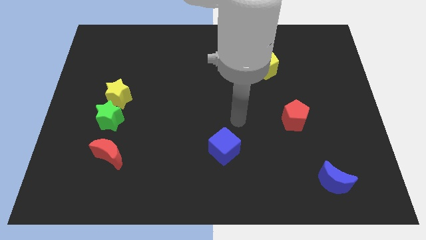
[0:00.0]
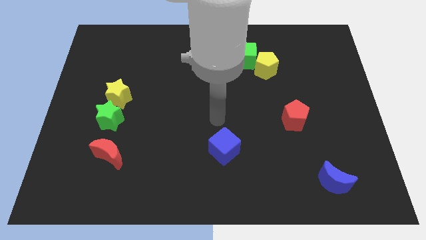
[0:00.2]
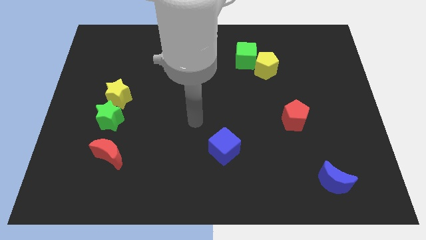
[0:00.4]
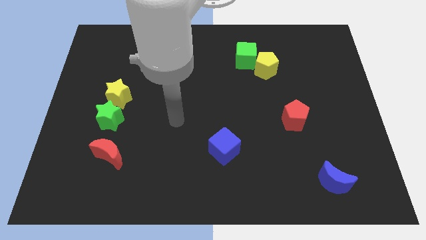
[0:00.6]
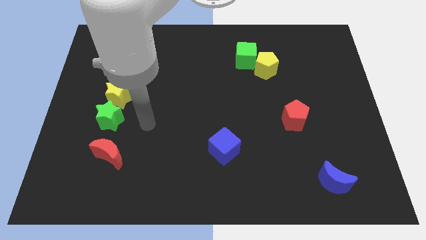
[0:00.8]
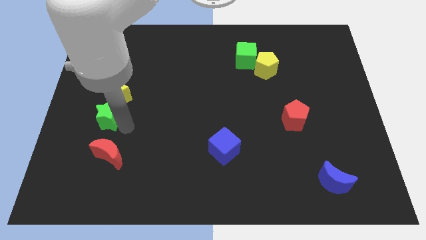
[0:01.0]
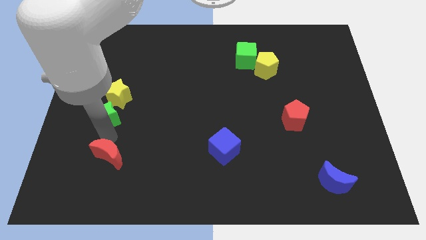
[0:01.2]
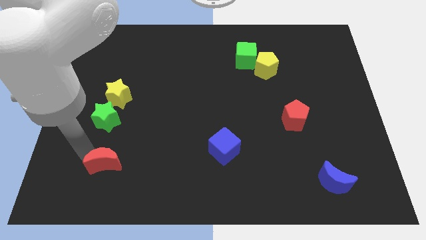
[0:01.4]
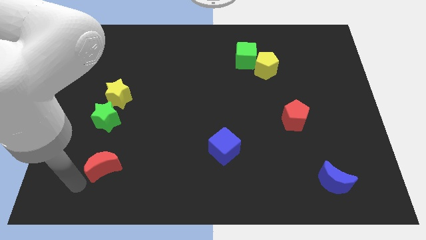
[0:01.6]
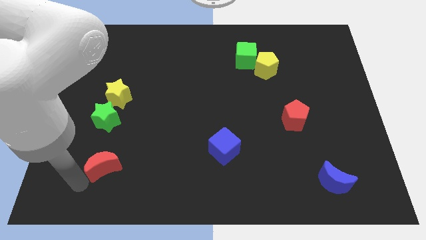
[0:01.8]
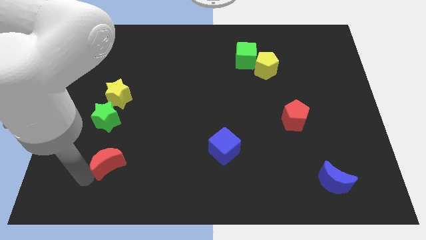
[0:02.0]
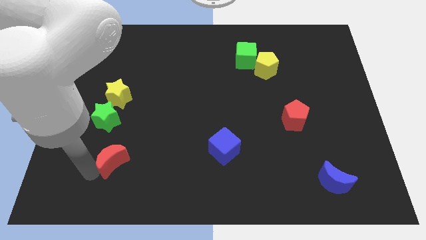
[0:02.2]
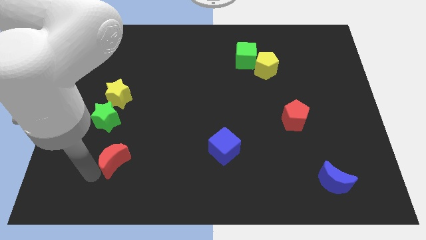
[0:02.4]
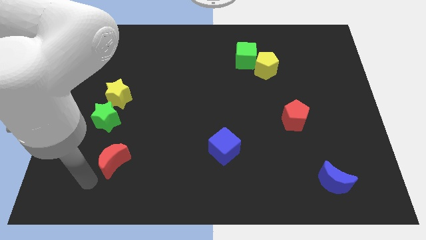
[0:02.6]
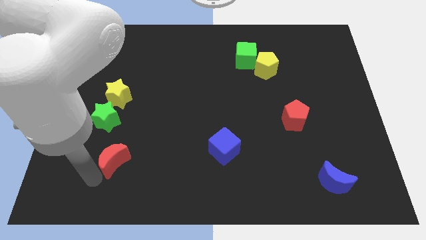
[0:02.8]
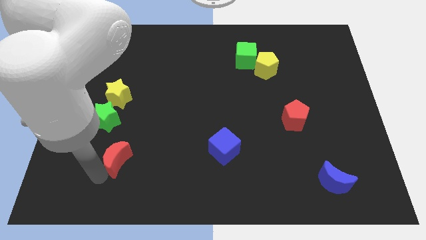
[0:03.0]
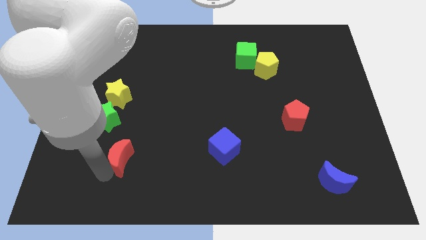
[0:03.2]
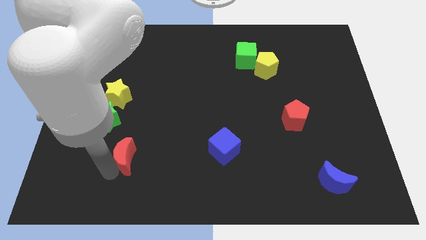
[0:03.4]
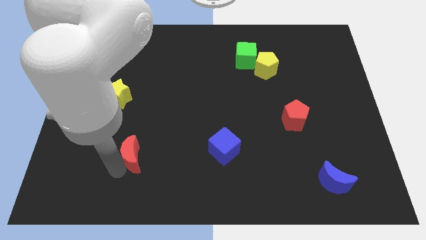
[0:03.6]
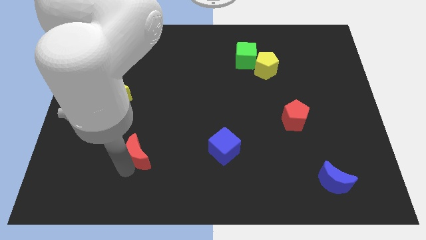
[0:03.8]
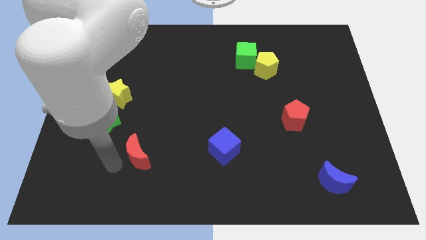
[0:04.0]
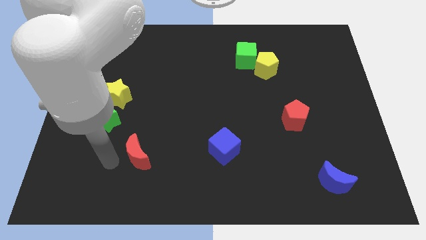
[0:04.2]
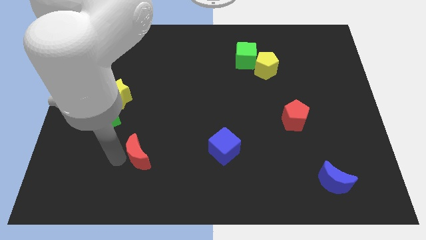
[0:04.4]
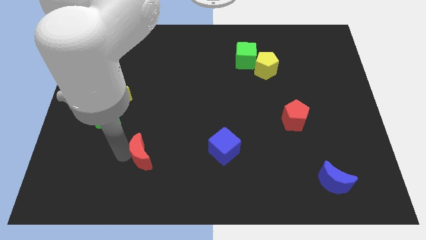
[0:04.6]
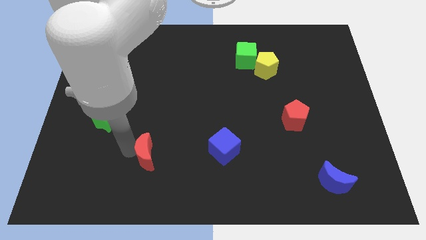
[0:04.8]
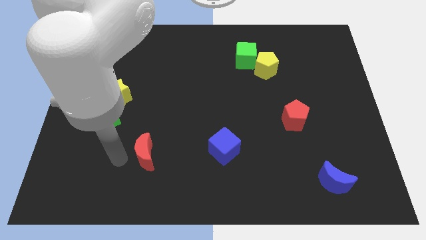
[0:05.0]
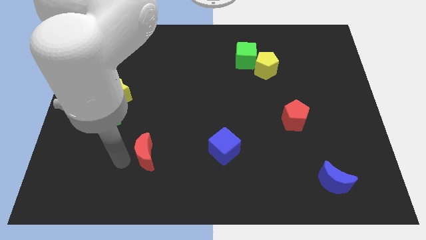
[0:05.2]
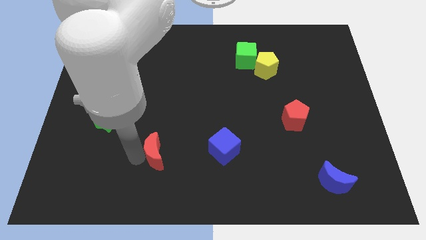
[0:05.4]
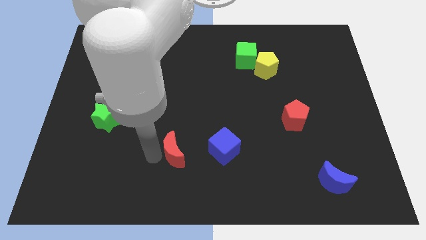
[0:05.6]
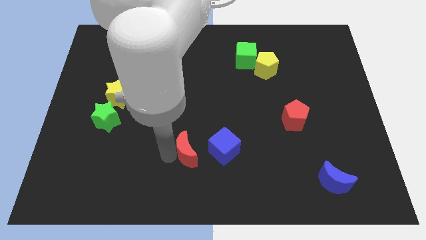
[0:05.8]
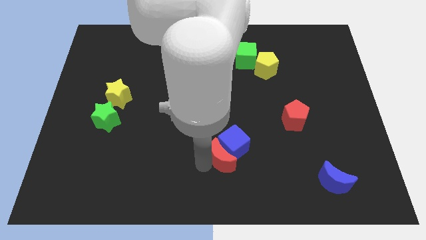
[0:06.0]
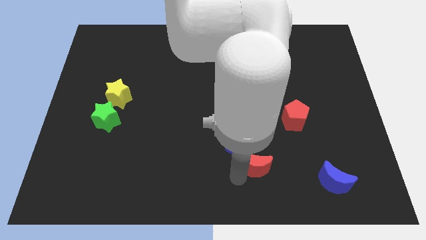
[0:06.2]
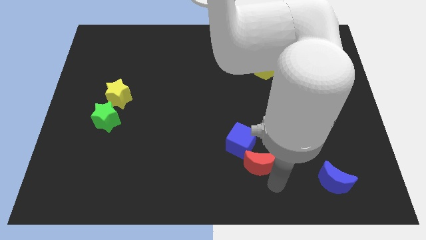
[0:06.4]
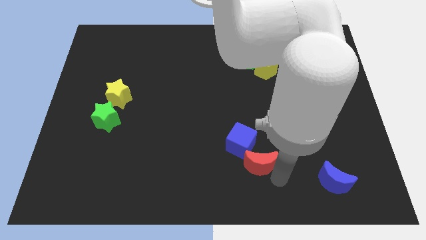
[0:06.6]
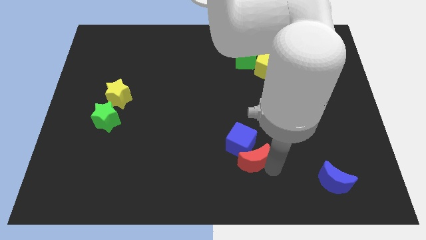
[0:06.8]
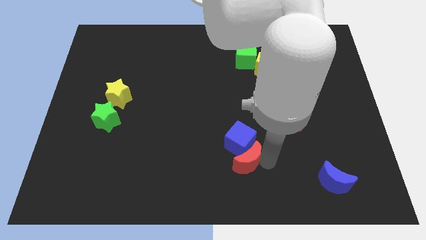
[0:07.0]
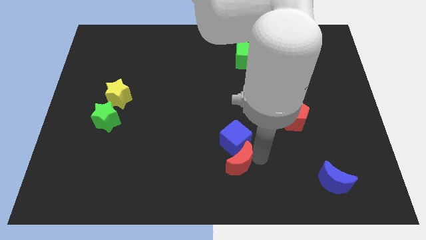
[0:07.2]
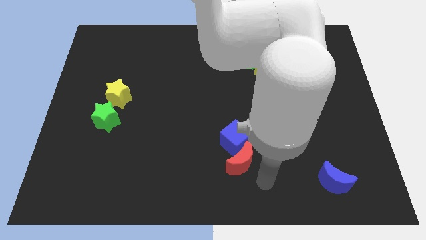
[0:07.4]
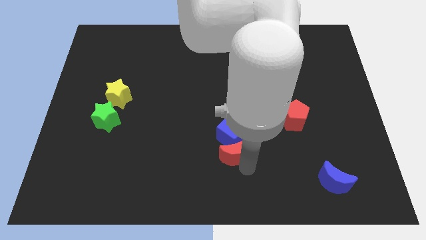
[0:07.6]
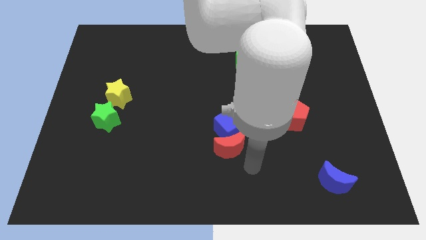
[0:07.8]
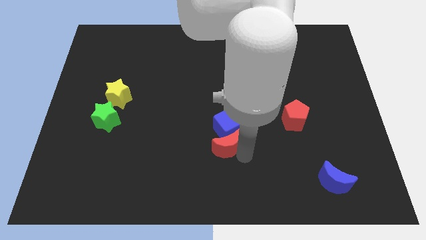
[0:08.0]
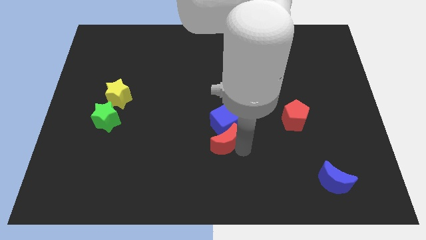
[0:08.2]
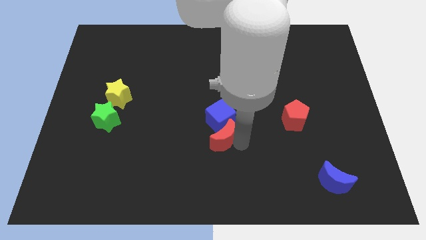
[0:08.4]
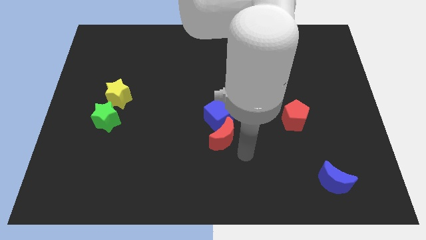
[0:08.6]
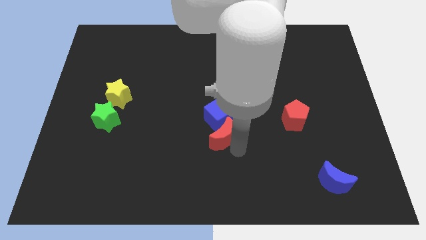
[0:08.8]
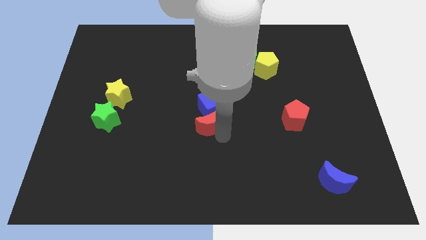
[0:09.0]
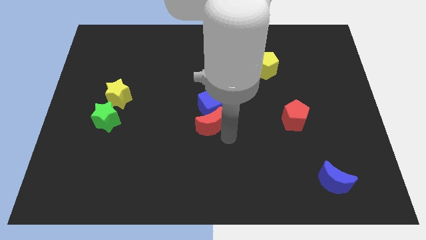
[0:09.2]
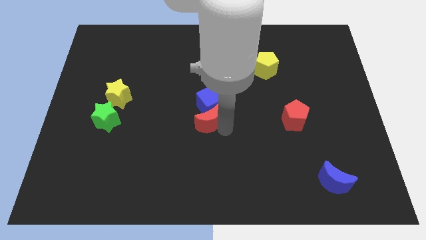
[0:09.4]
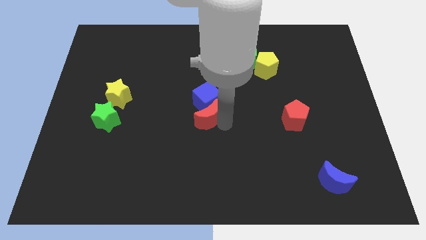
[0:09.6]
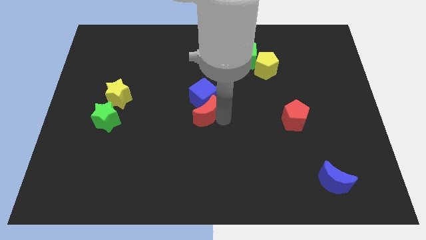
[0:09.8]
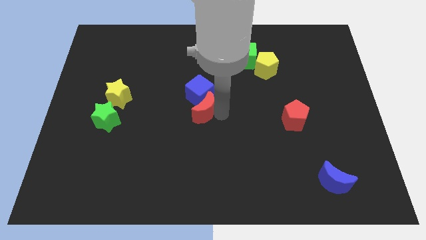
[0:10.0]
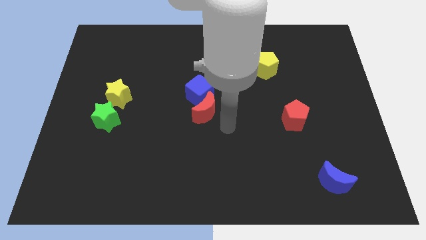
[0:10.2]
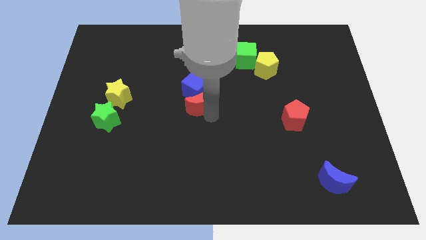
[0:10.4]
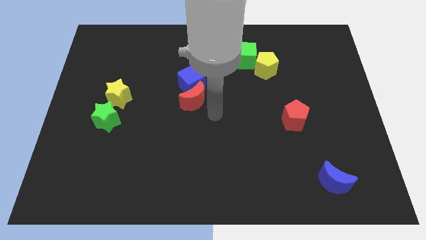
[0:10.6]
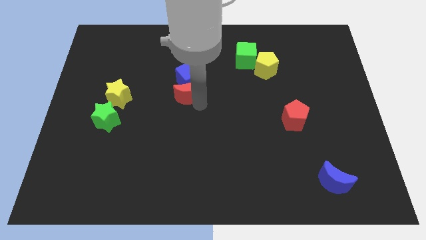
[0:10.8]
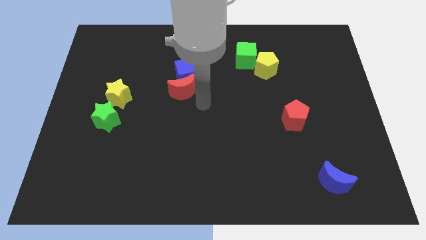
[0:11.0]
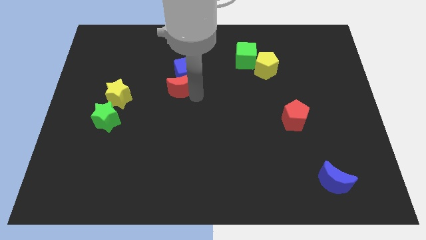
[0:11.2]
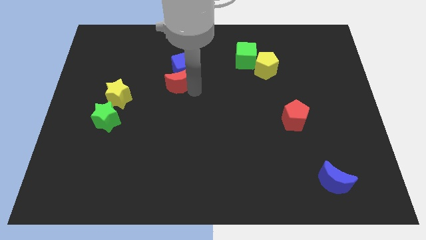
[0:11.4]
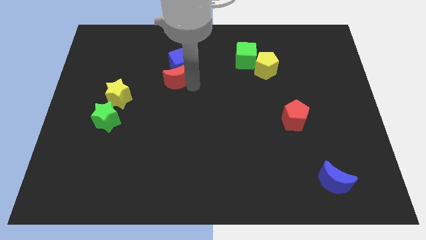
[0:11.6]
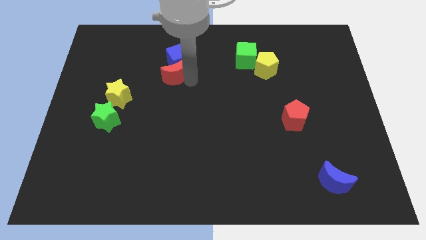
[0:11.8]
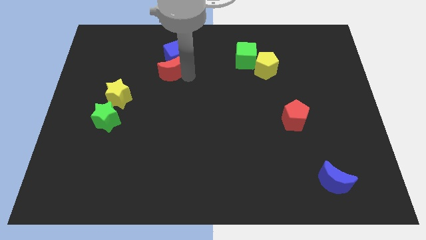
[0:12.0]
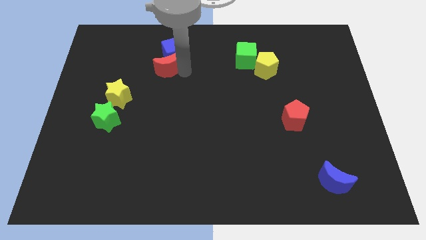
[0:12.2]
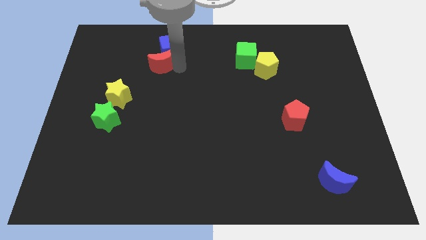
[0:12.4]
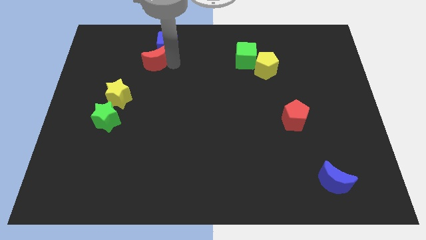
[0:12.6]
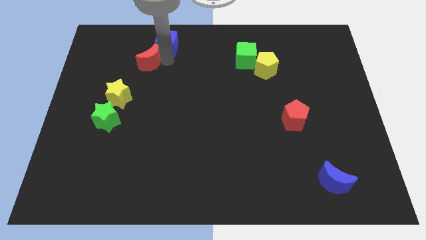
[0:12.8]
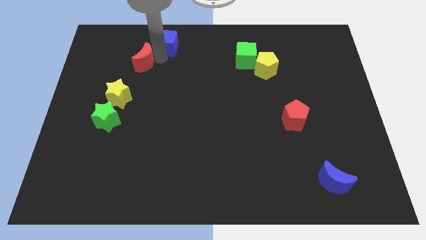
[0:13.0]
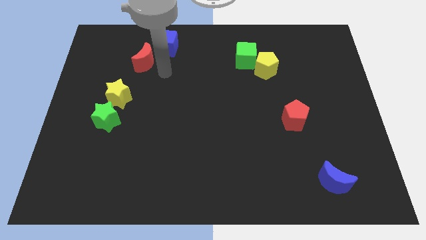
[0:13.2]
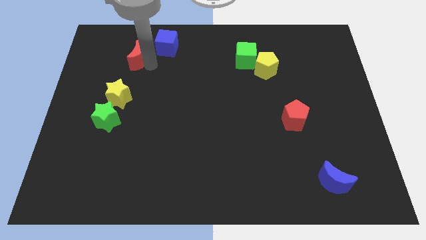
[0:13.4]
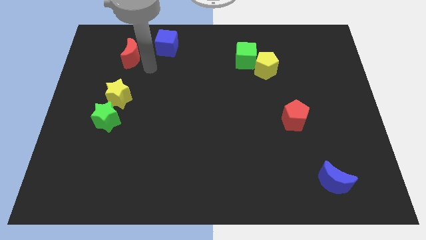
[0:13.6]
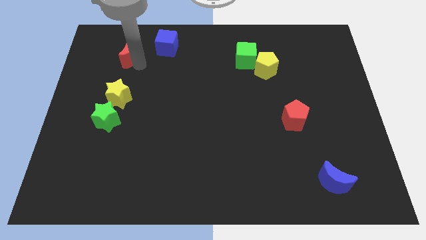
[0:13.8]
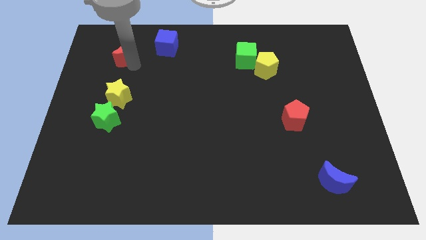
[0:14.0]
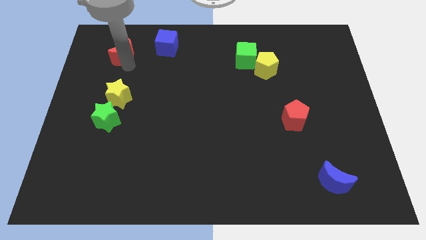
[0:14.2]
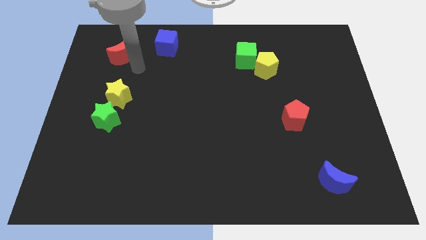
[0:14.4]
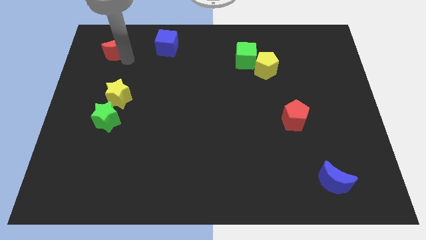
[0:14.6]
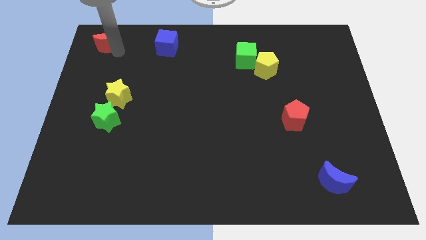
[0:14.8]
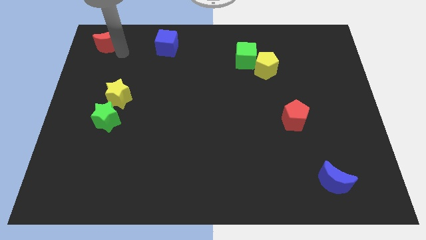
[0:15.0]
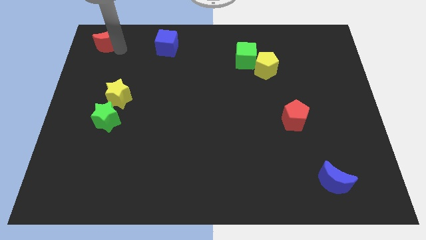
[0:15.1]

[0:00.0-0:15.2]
slide the red moon to the top left corner
